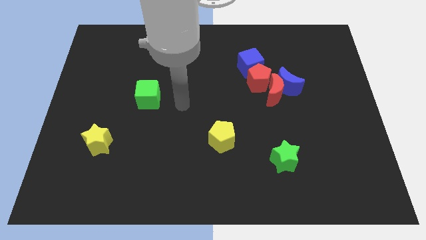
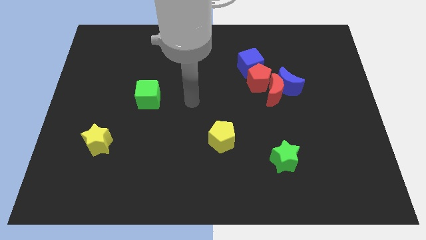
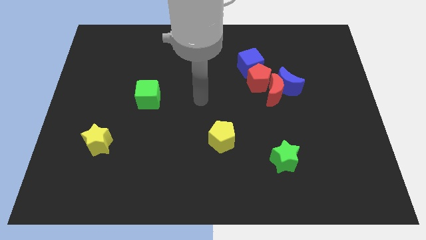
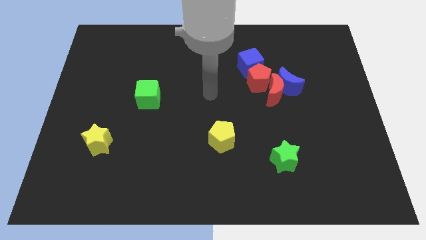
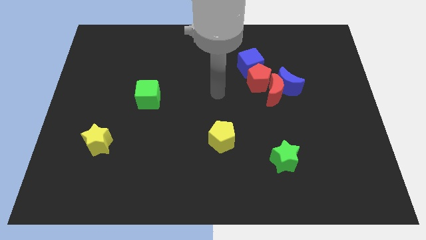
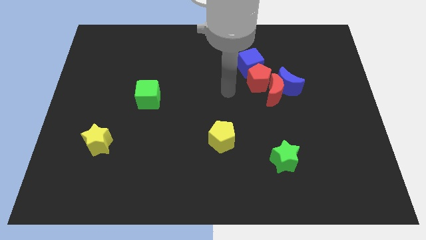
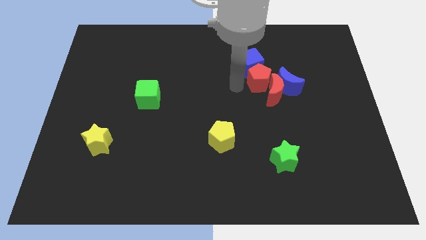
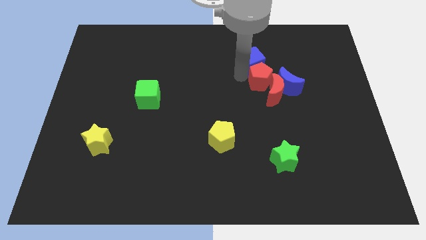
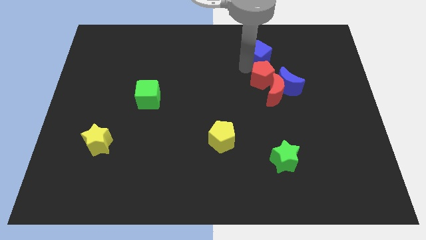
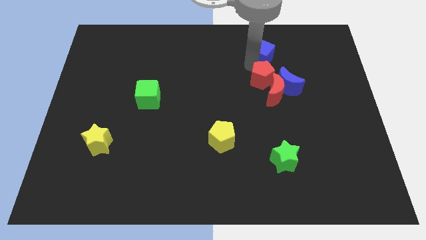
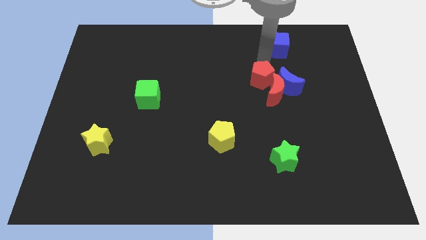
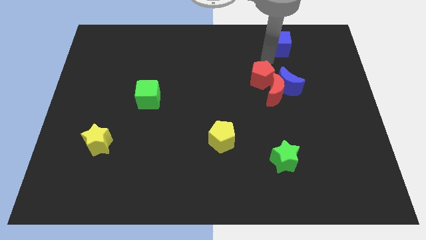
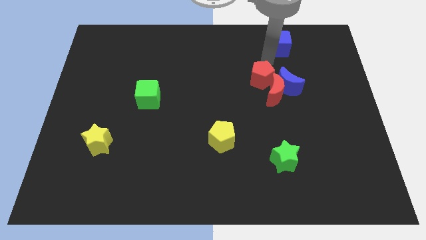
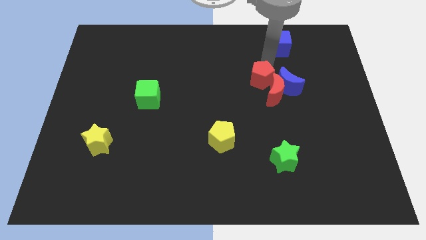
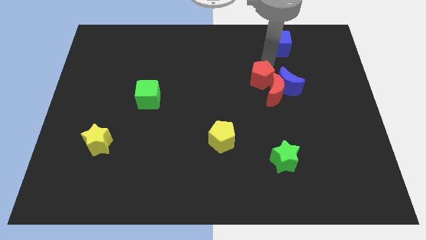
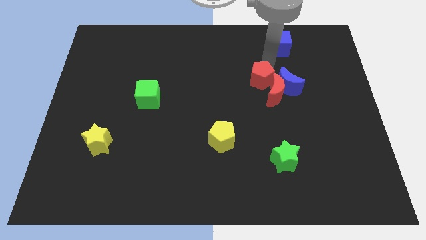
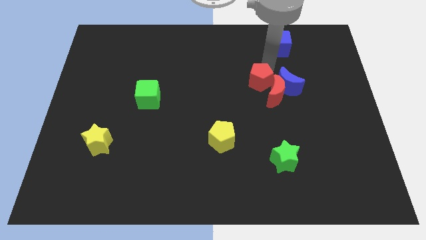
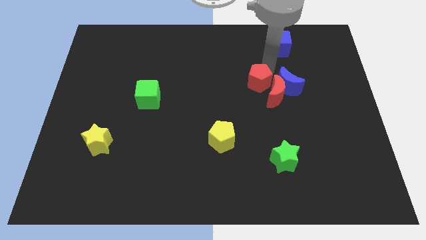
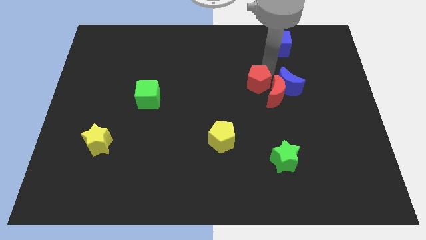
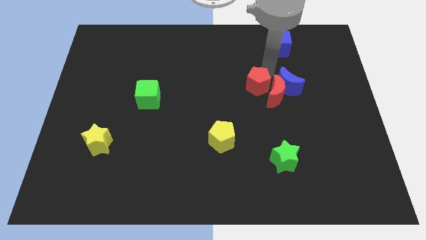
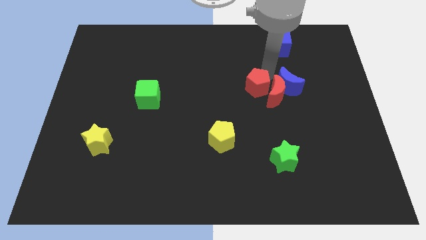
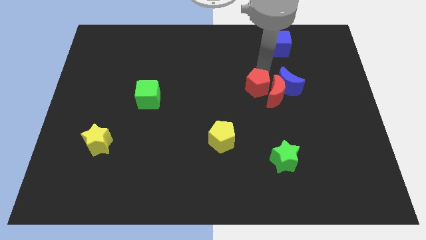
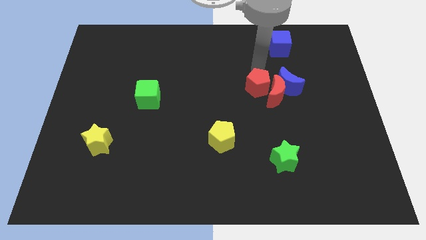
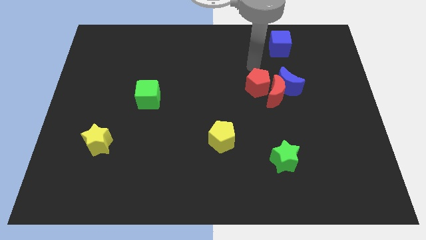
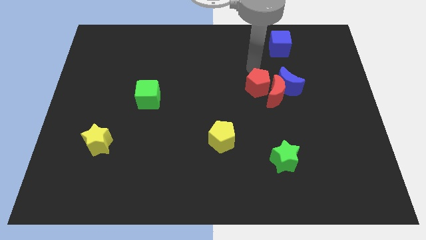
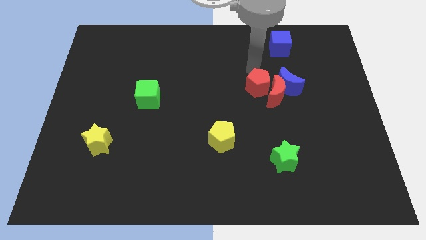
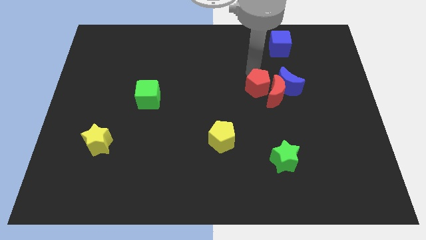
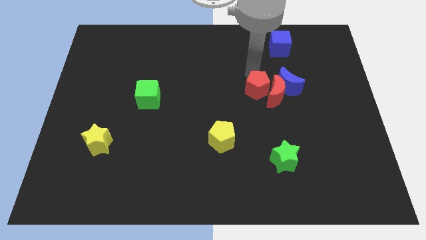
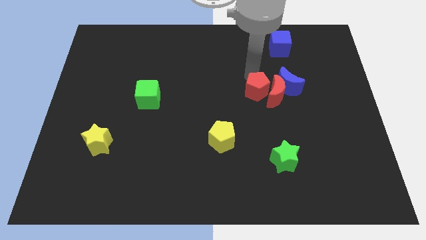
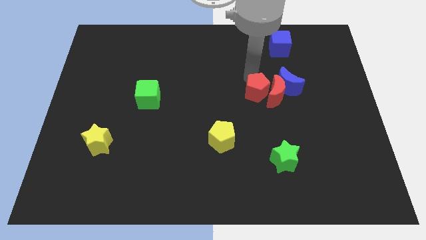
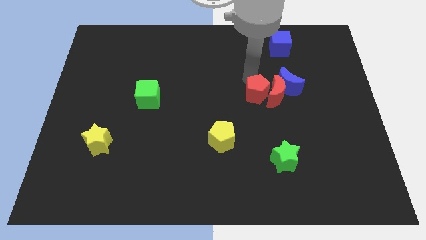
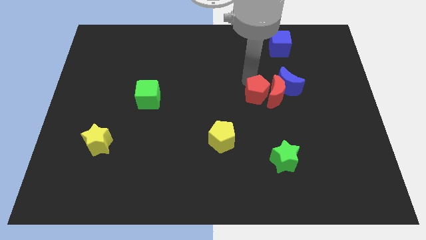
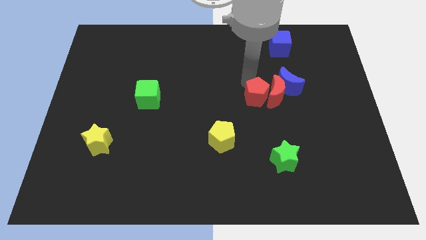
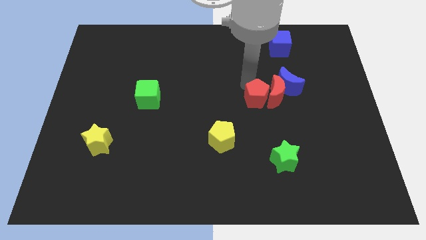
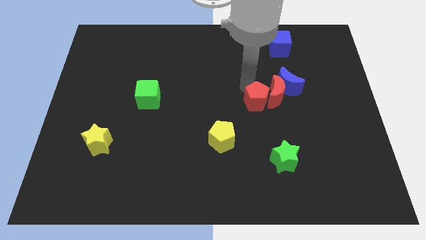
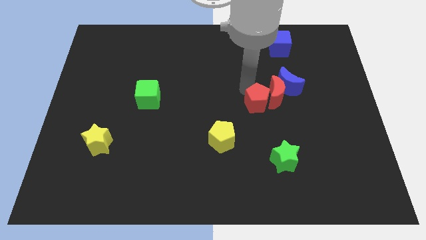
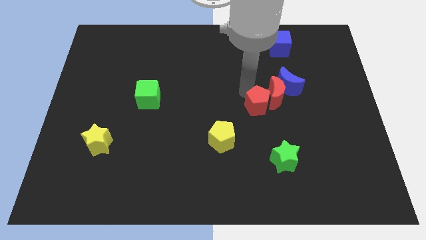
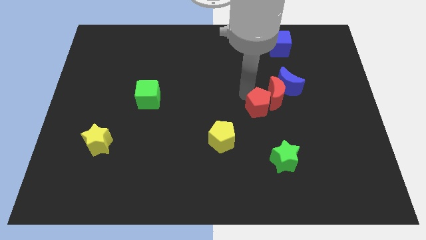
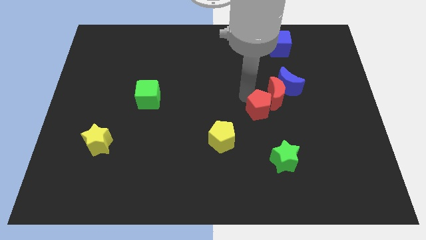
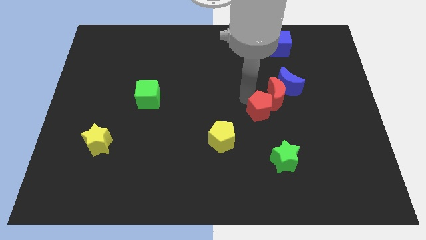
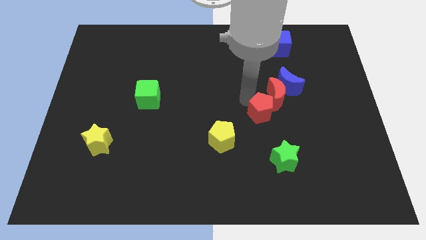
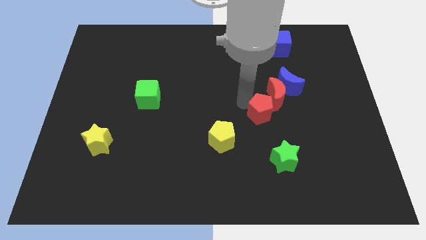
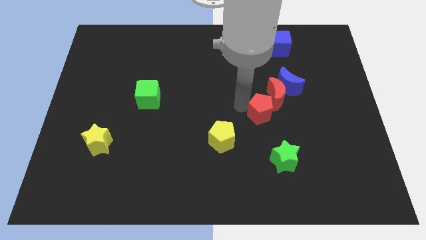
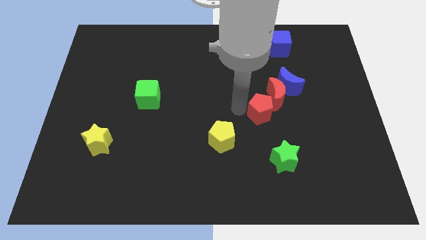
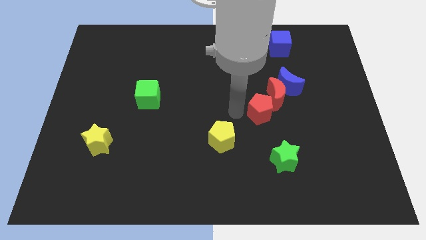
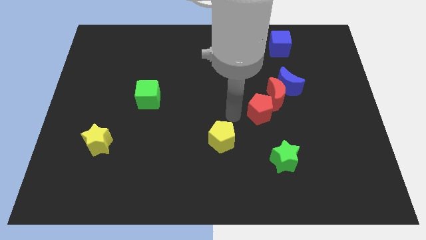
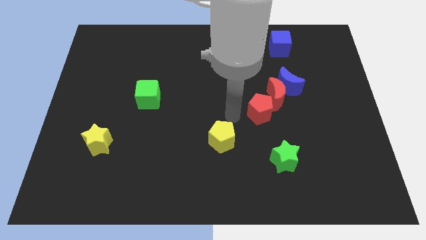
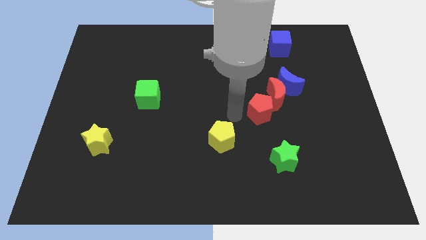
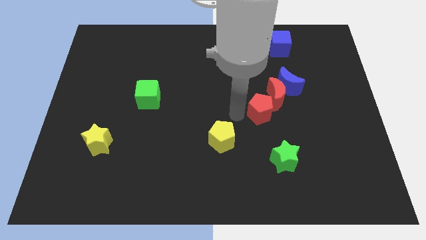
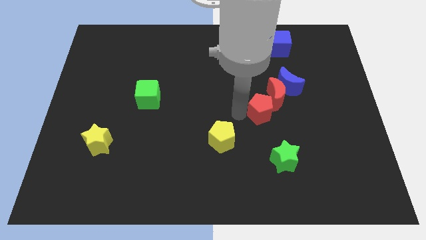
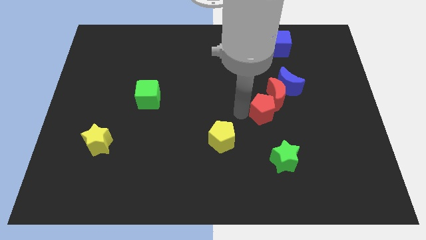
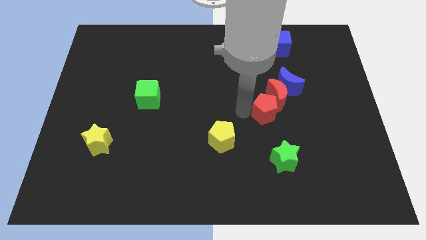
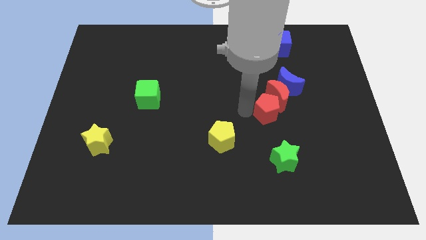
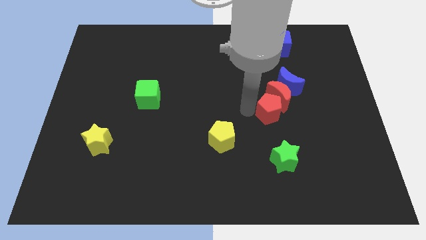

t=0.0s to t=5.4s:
slide the red pentagon downwards and to the right a bit

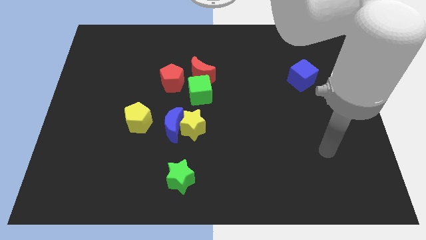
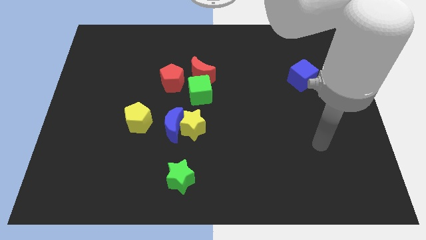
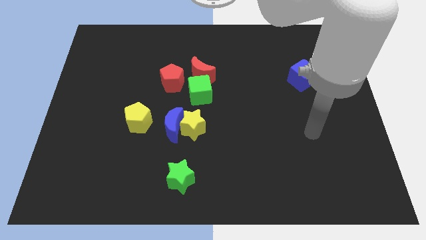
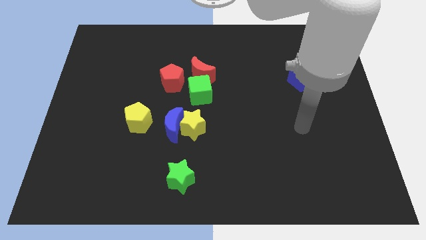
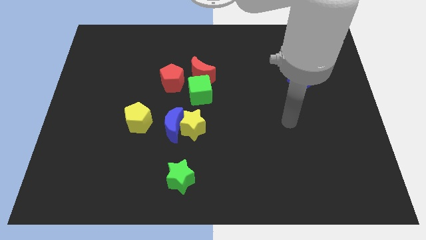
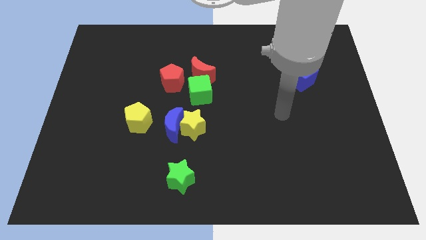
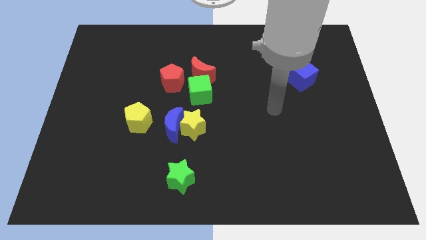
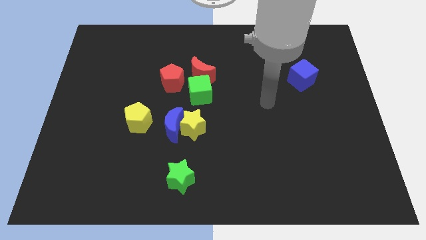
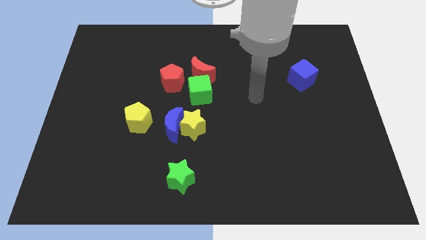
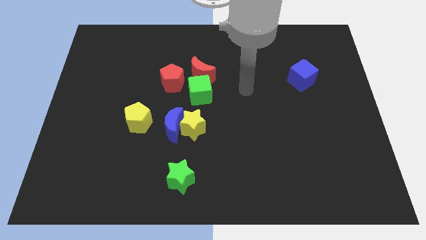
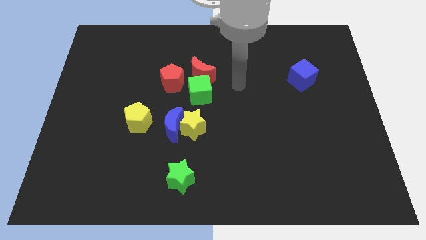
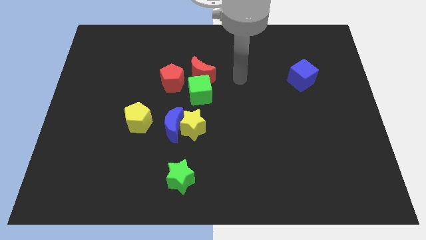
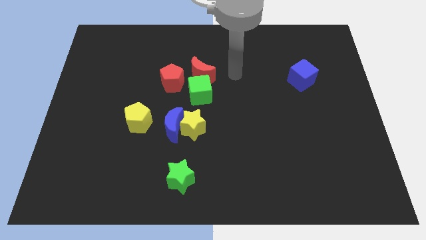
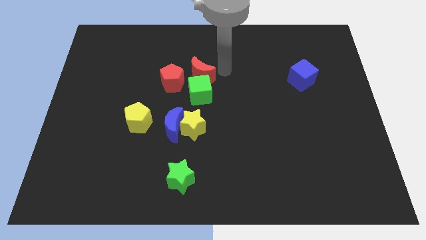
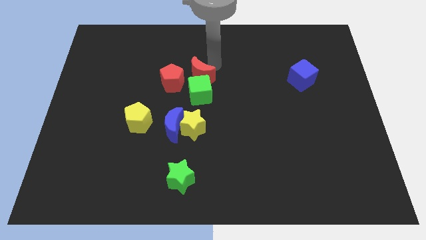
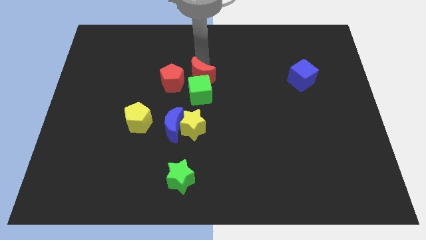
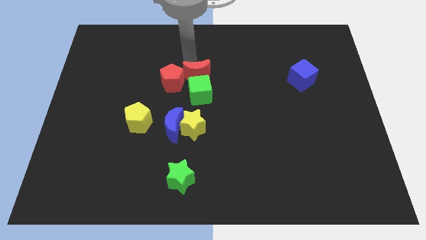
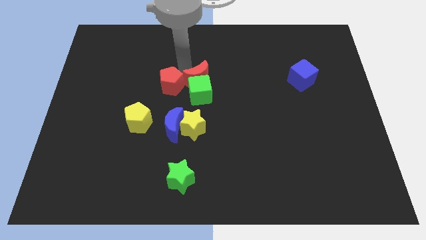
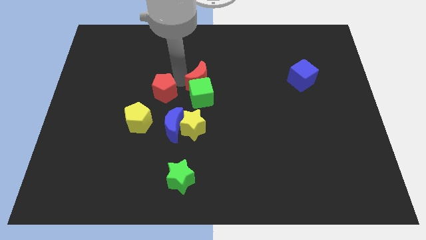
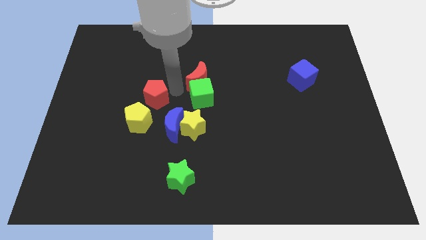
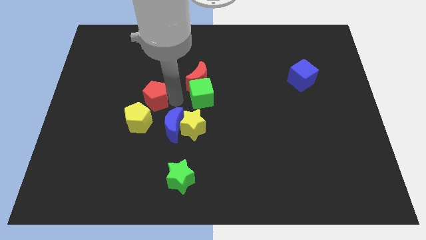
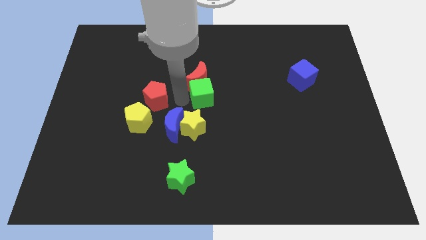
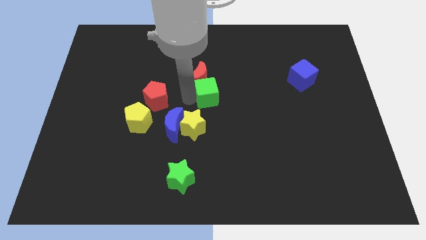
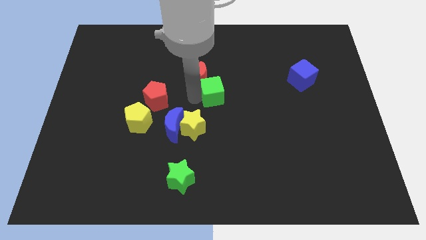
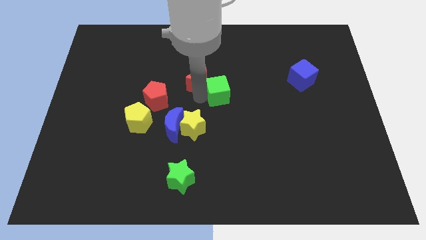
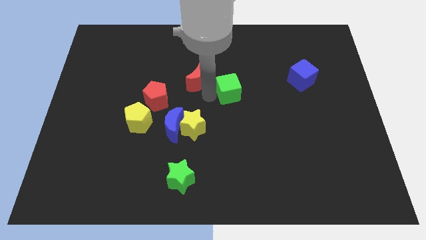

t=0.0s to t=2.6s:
slightly push the green cube right

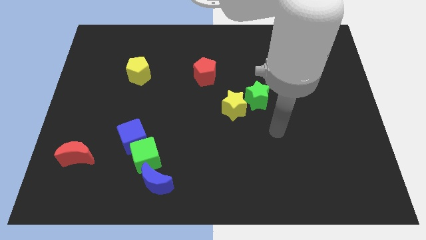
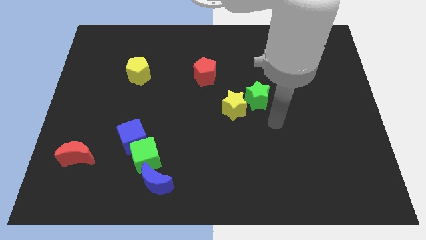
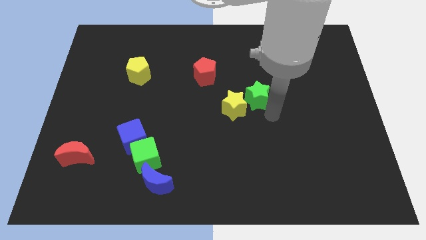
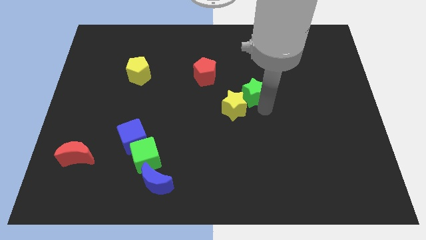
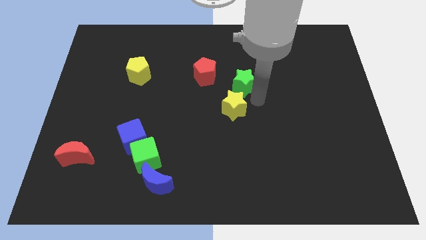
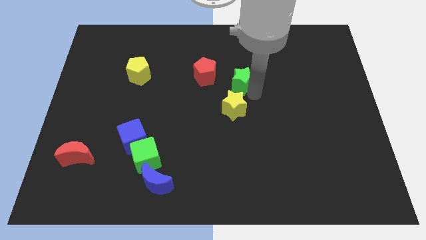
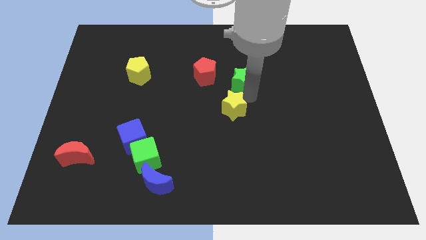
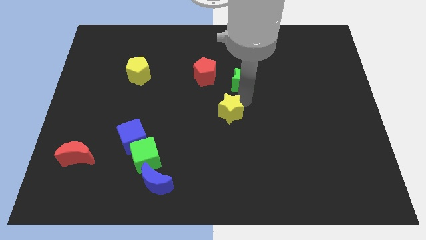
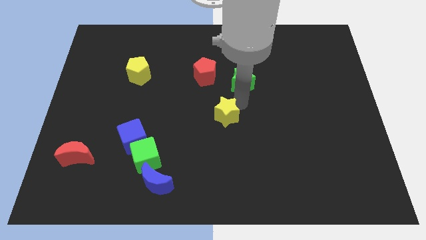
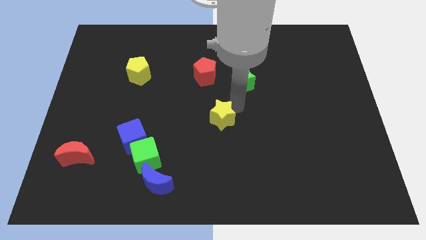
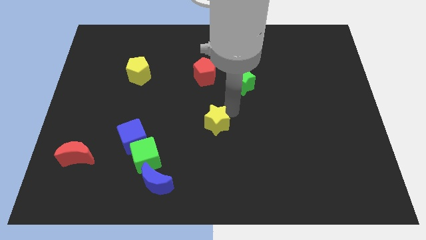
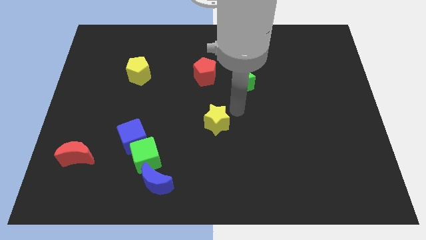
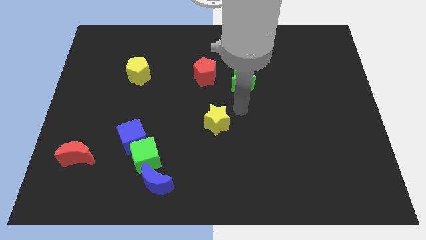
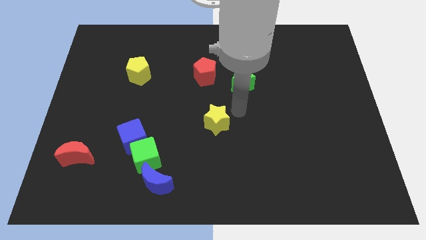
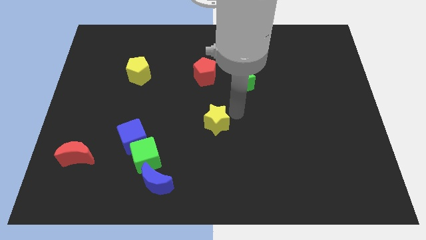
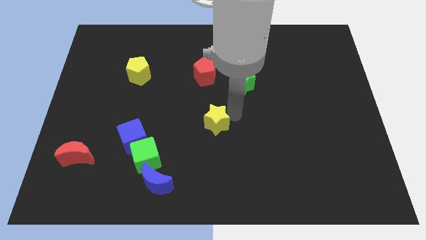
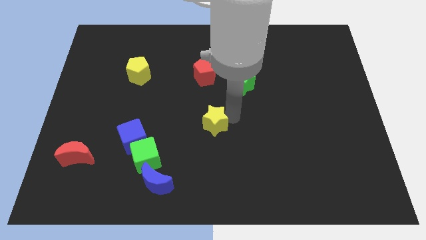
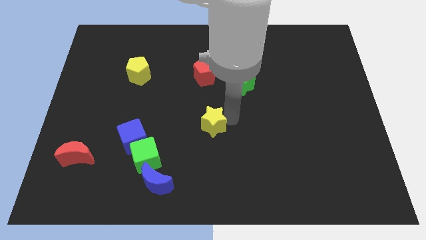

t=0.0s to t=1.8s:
slide the yellow star a bit downwards and then to the left
